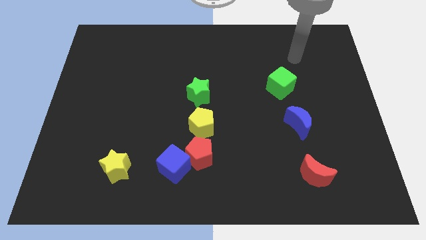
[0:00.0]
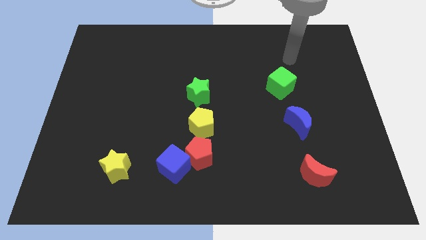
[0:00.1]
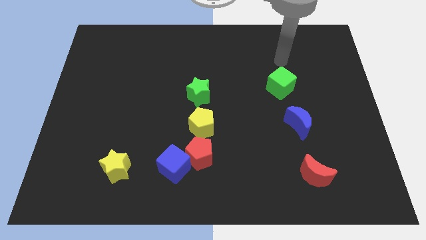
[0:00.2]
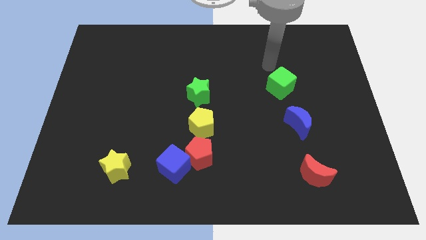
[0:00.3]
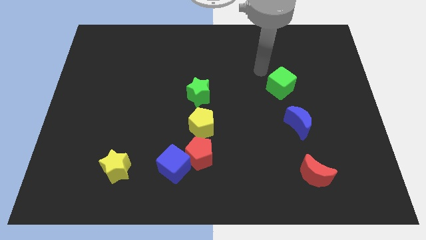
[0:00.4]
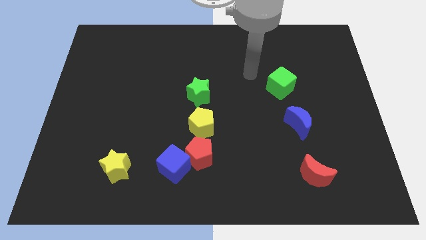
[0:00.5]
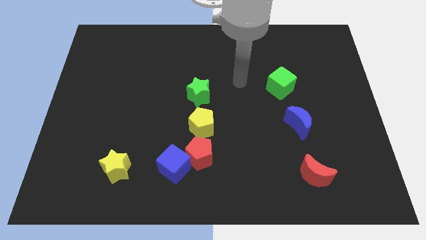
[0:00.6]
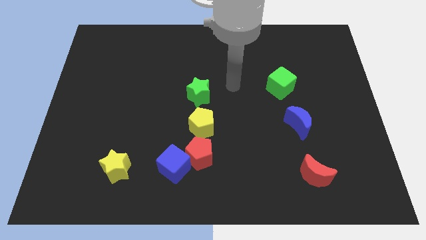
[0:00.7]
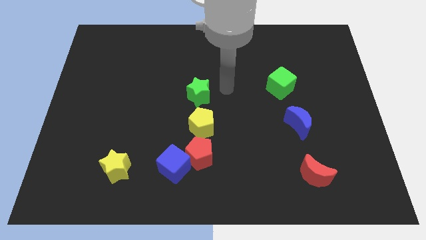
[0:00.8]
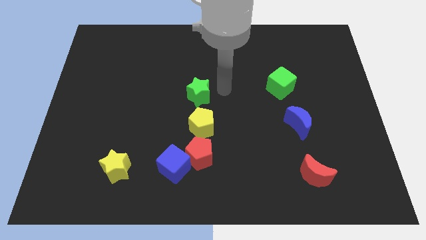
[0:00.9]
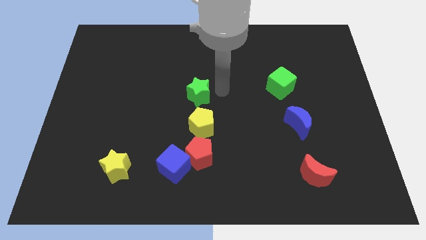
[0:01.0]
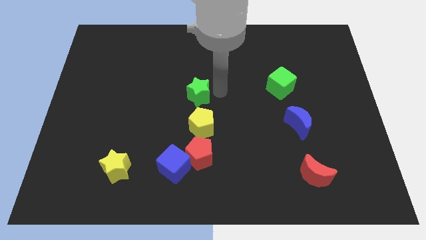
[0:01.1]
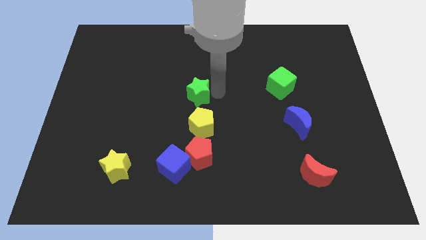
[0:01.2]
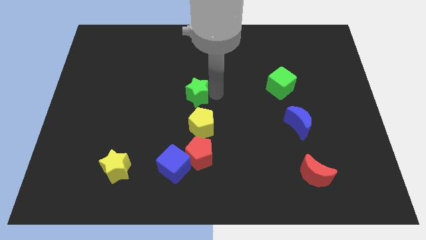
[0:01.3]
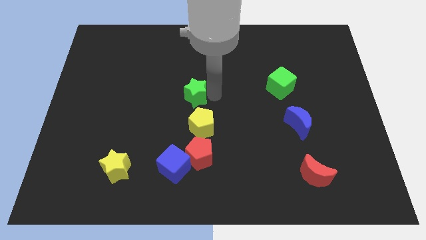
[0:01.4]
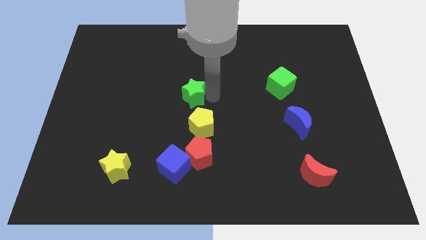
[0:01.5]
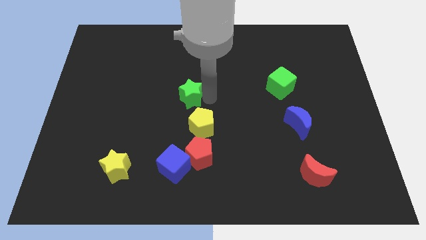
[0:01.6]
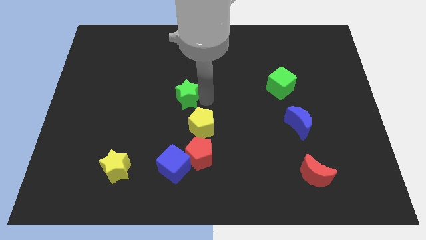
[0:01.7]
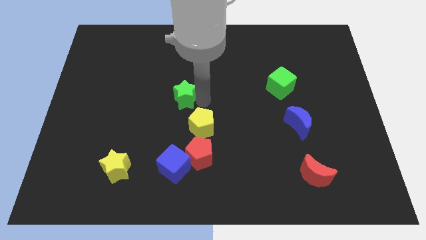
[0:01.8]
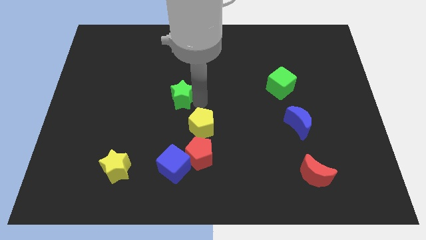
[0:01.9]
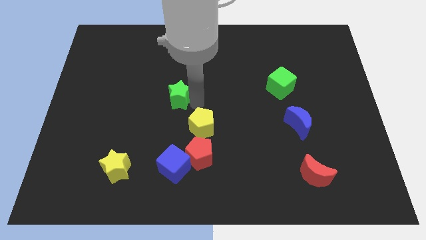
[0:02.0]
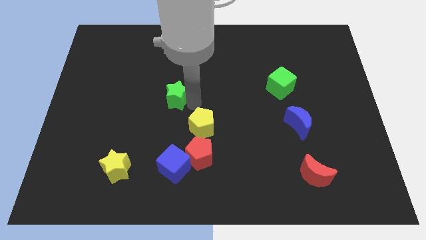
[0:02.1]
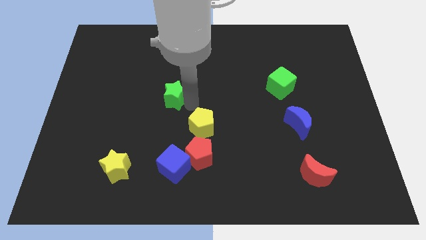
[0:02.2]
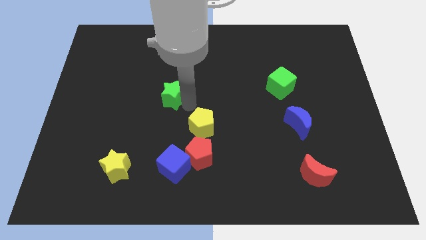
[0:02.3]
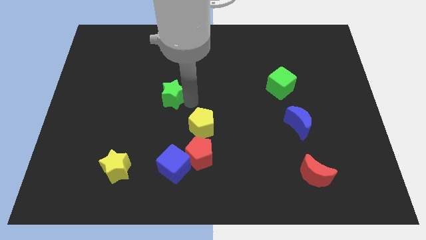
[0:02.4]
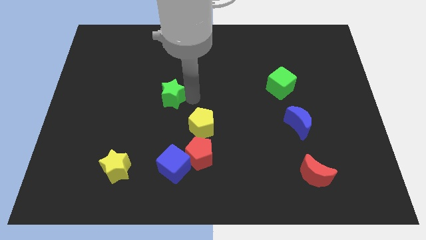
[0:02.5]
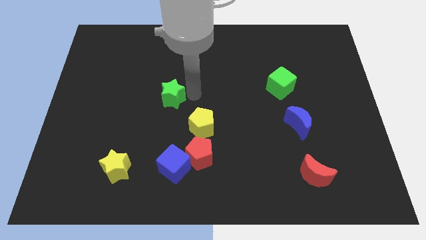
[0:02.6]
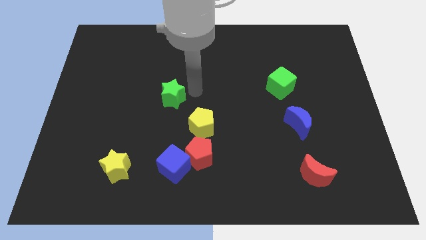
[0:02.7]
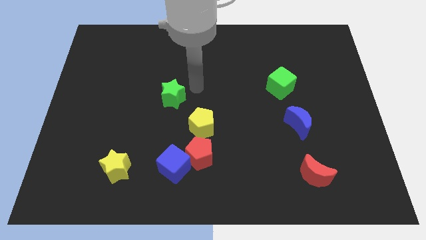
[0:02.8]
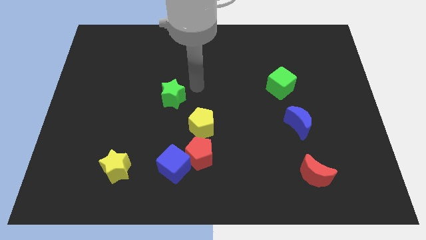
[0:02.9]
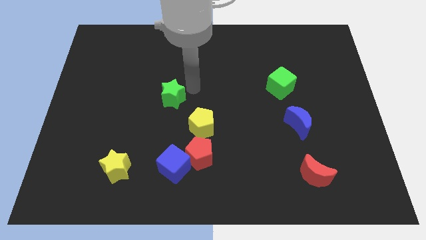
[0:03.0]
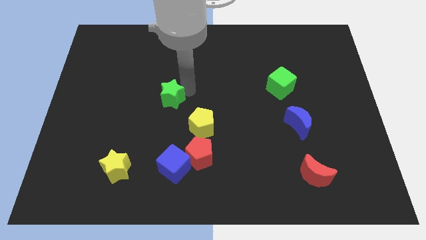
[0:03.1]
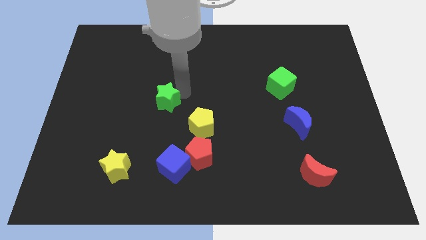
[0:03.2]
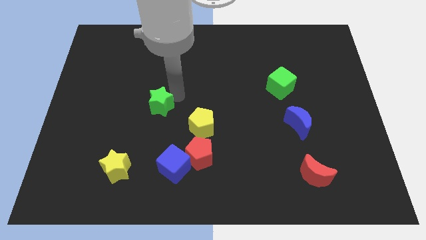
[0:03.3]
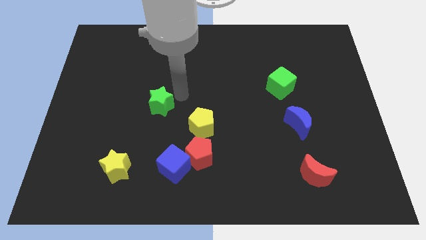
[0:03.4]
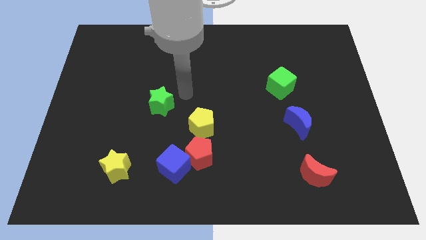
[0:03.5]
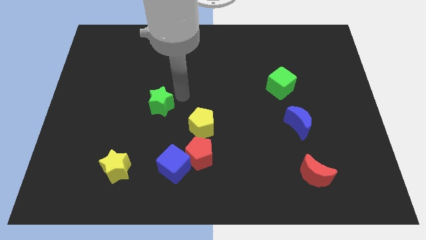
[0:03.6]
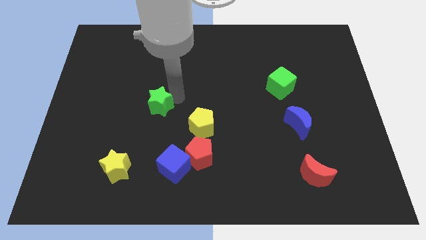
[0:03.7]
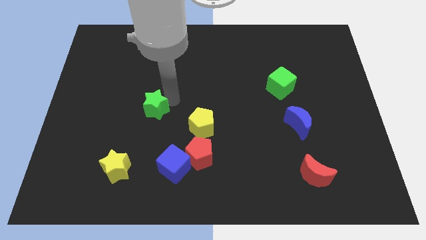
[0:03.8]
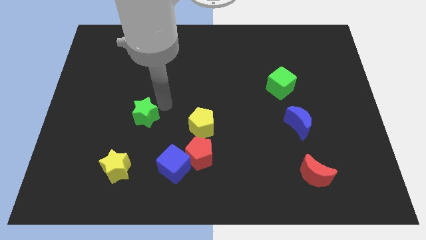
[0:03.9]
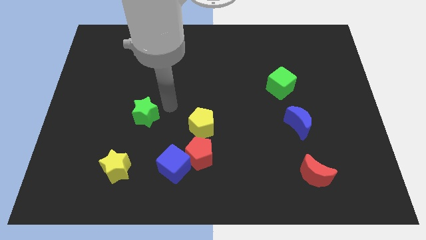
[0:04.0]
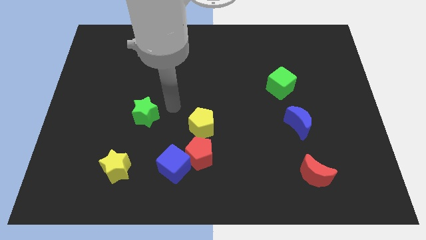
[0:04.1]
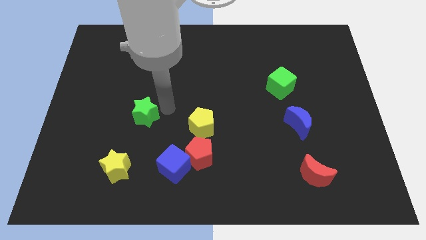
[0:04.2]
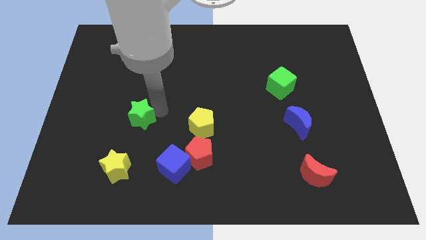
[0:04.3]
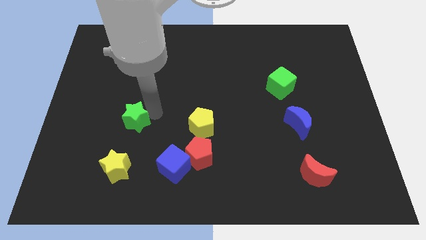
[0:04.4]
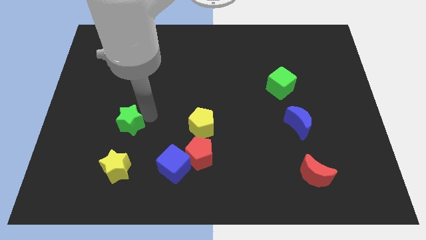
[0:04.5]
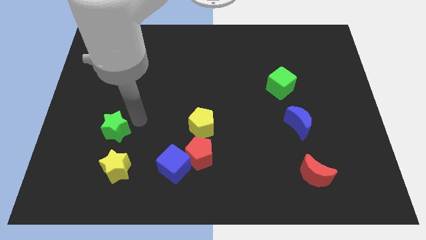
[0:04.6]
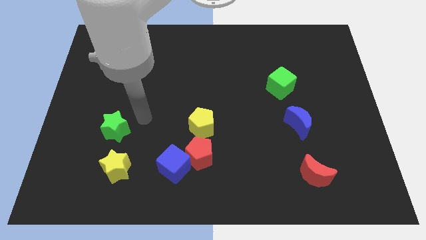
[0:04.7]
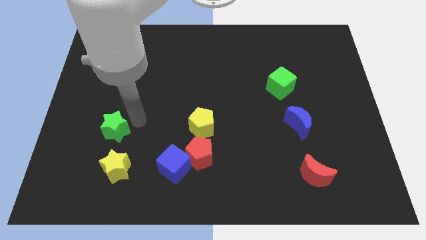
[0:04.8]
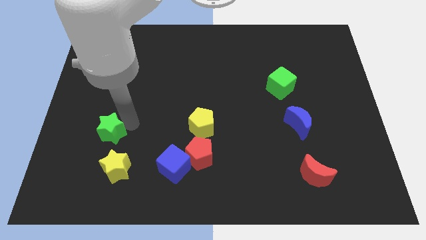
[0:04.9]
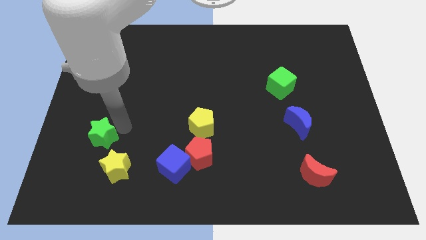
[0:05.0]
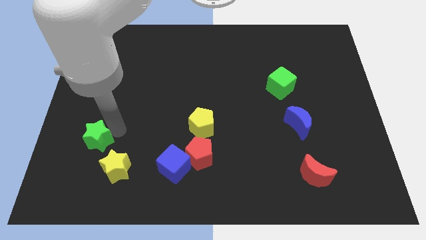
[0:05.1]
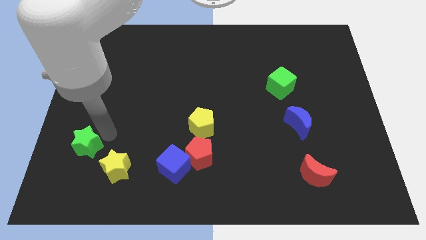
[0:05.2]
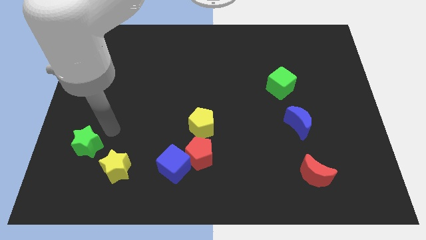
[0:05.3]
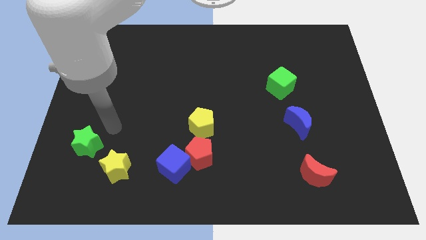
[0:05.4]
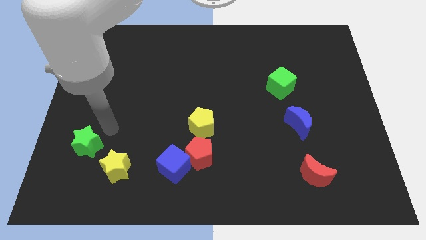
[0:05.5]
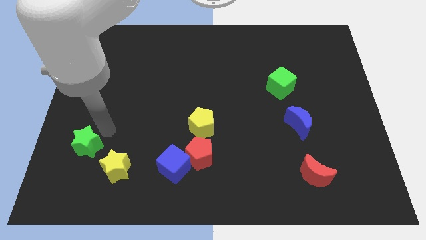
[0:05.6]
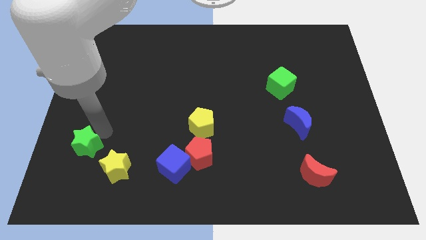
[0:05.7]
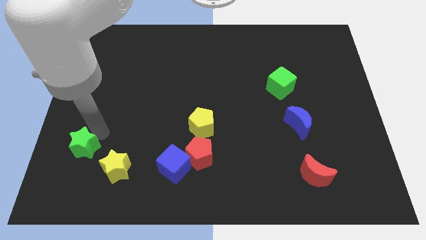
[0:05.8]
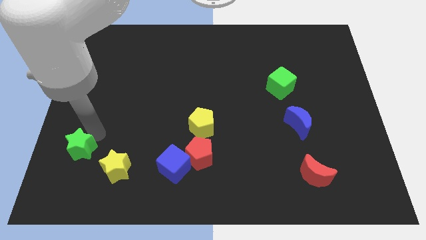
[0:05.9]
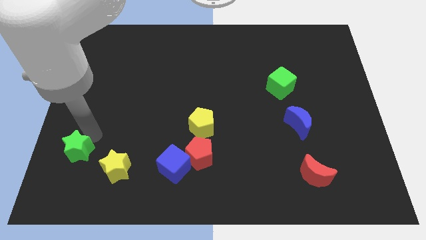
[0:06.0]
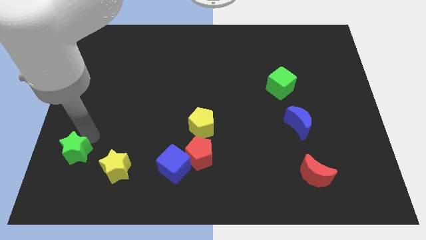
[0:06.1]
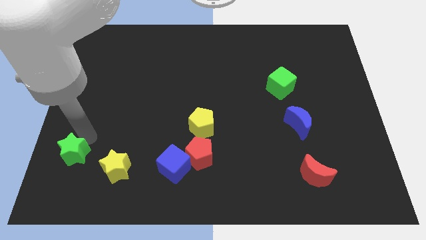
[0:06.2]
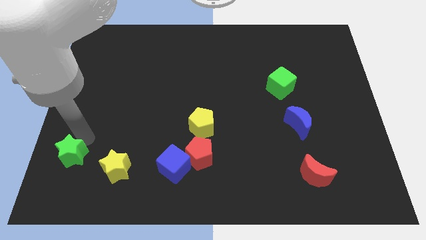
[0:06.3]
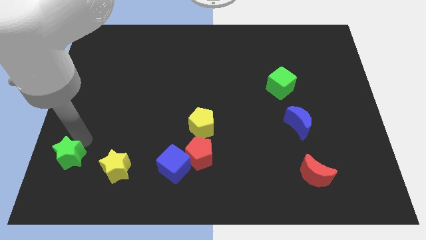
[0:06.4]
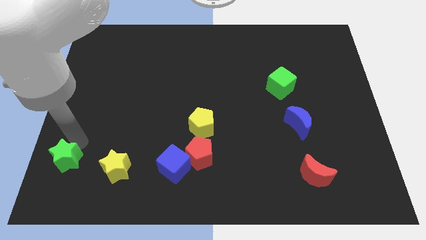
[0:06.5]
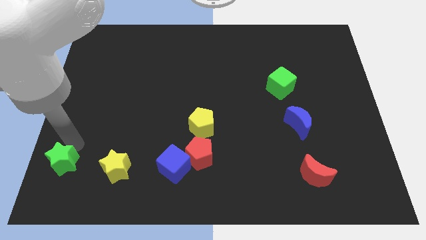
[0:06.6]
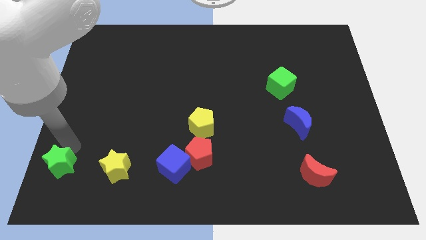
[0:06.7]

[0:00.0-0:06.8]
slide the green star to the bottom left of the board
